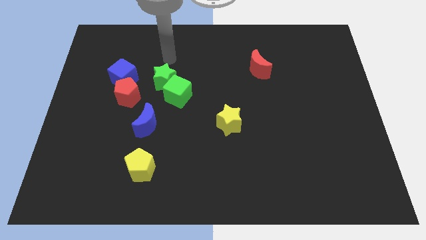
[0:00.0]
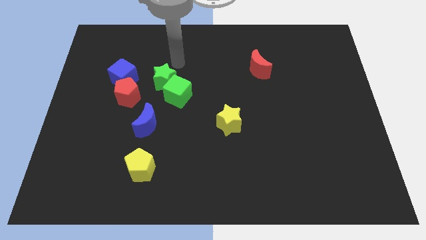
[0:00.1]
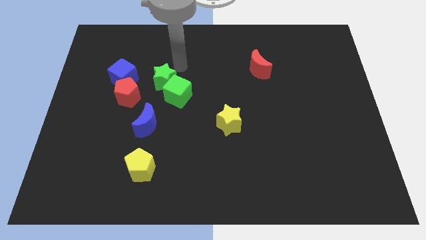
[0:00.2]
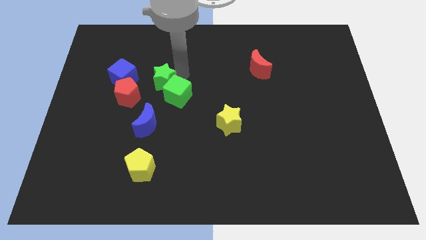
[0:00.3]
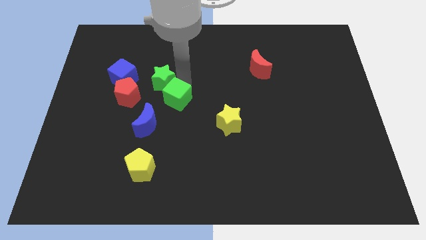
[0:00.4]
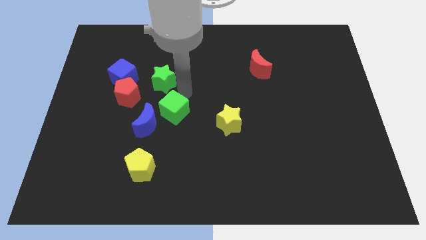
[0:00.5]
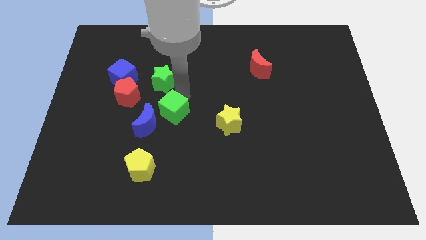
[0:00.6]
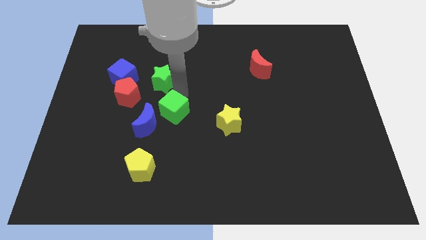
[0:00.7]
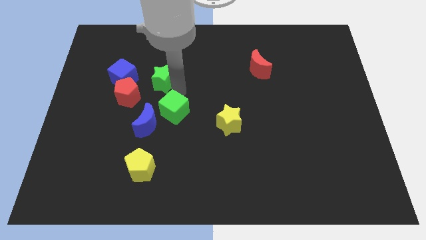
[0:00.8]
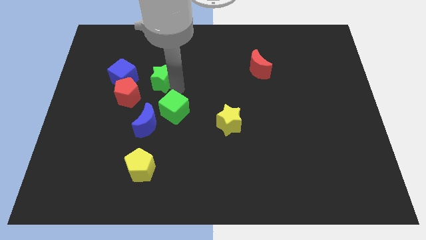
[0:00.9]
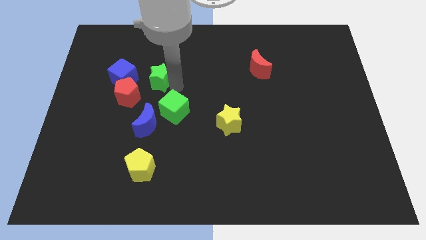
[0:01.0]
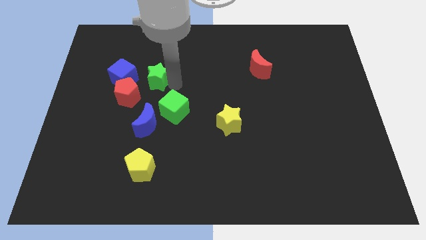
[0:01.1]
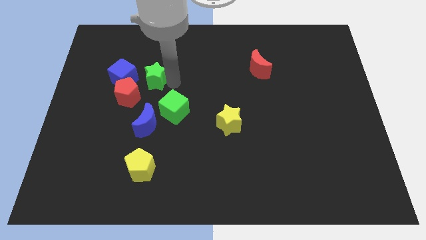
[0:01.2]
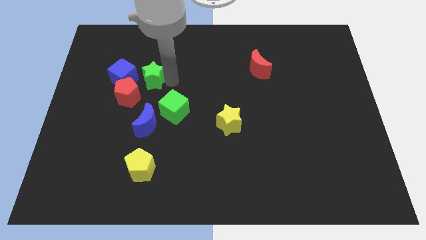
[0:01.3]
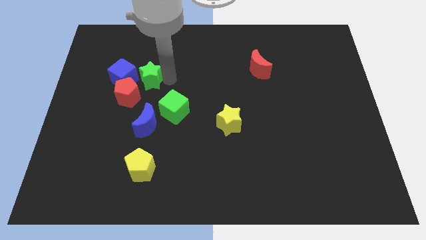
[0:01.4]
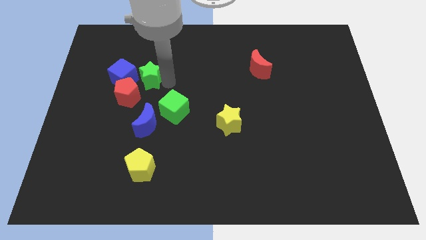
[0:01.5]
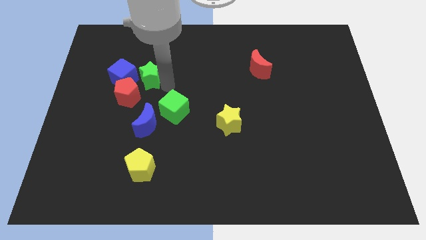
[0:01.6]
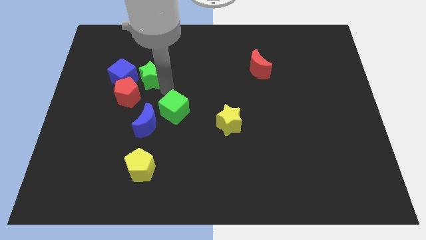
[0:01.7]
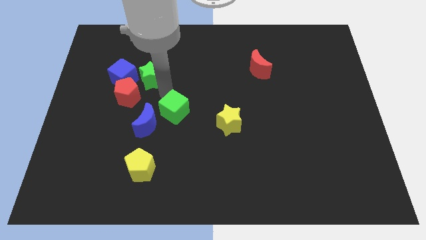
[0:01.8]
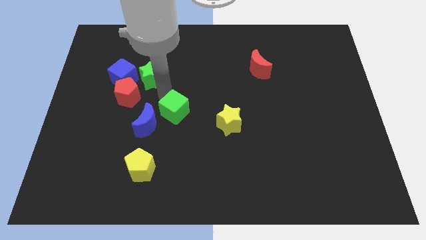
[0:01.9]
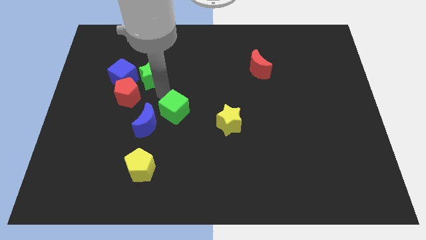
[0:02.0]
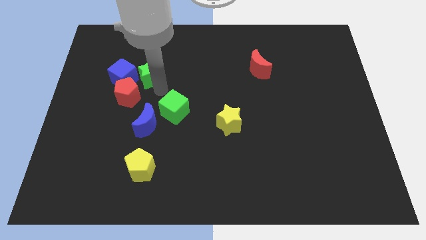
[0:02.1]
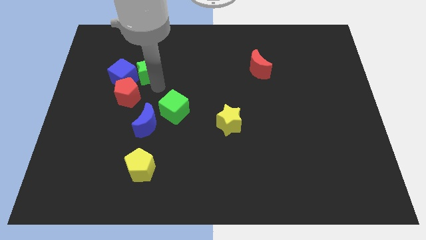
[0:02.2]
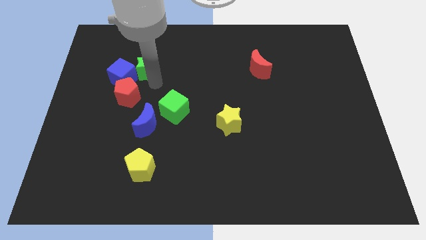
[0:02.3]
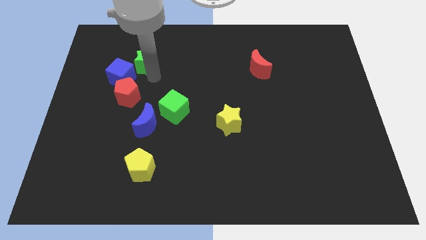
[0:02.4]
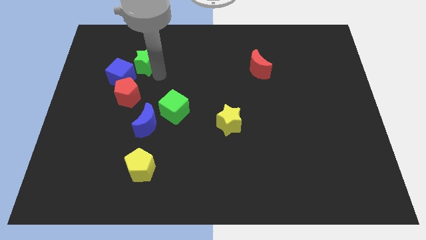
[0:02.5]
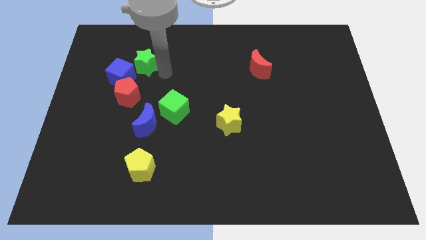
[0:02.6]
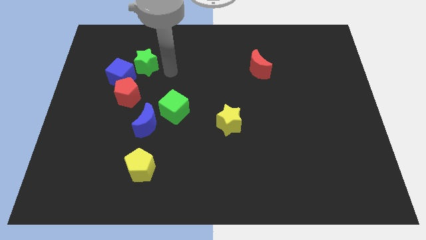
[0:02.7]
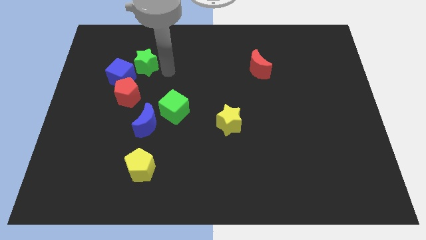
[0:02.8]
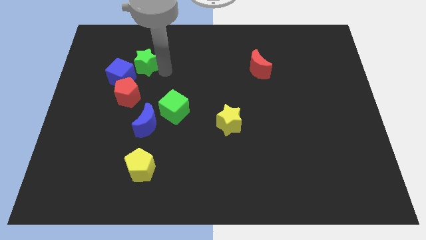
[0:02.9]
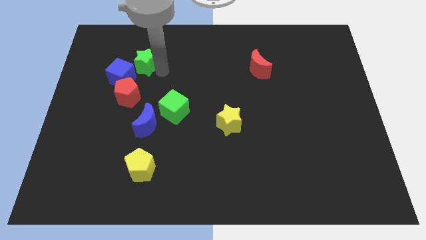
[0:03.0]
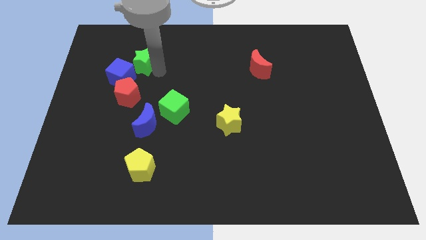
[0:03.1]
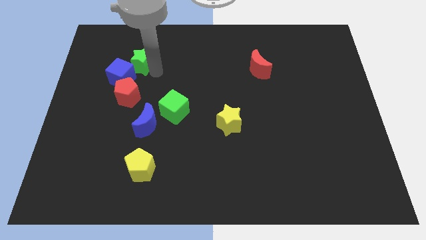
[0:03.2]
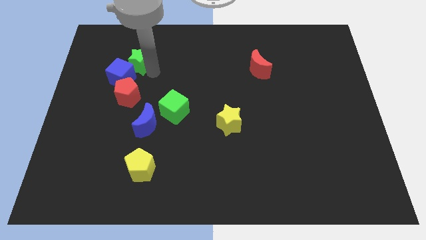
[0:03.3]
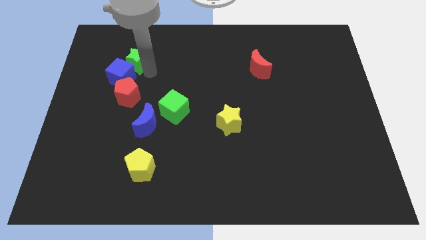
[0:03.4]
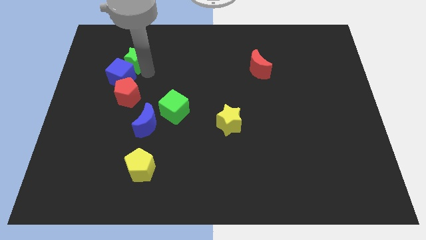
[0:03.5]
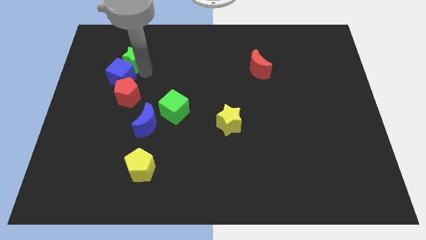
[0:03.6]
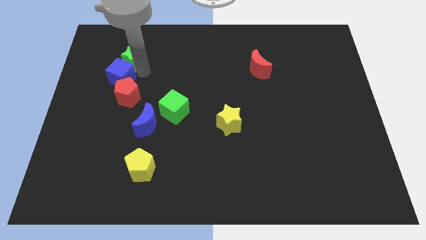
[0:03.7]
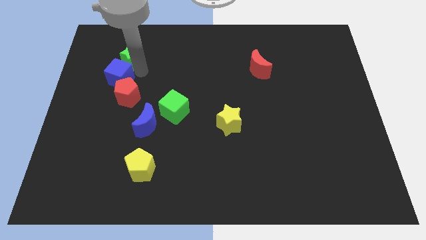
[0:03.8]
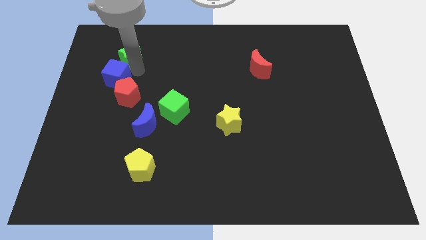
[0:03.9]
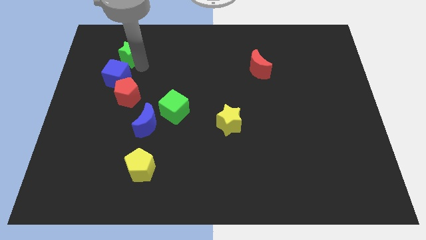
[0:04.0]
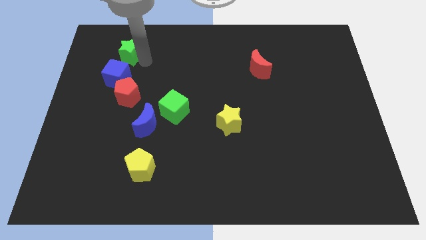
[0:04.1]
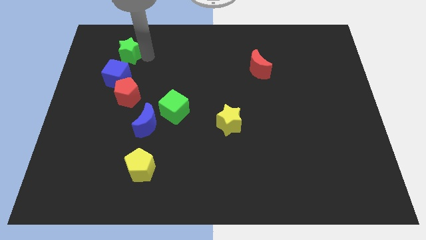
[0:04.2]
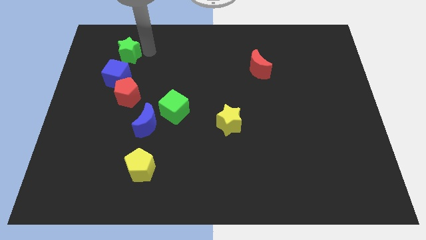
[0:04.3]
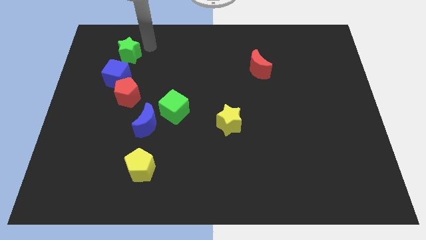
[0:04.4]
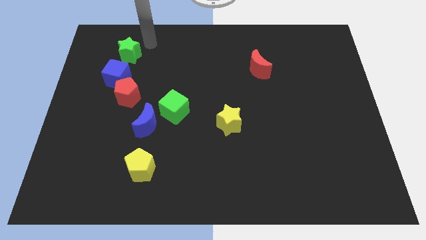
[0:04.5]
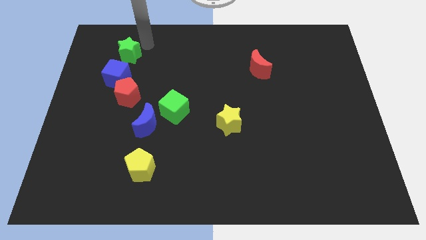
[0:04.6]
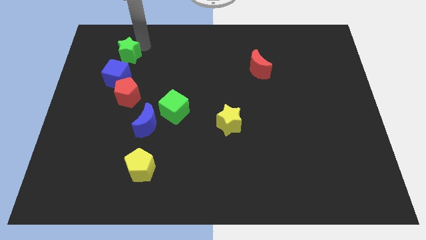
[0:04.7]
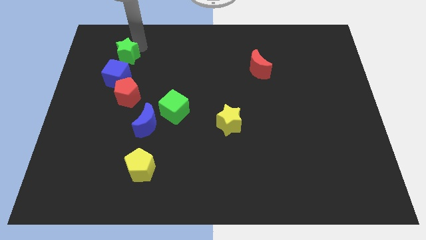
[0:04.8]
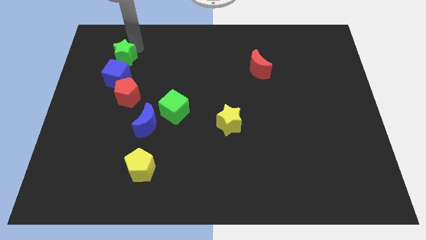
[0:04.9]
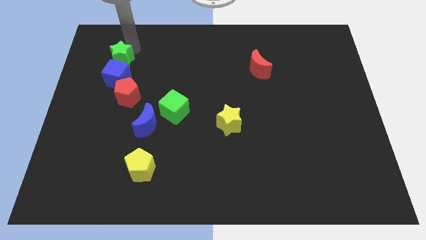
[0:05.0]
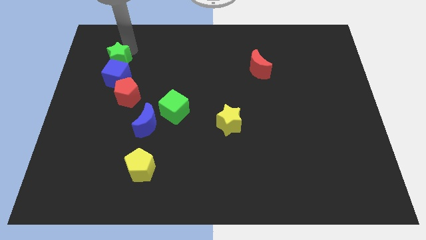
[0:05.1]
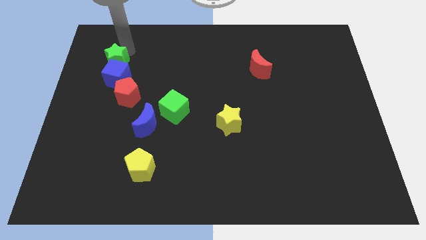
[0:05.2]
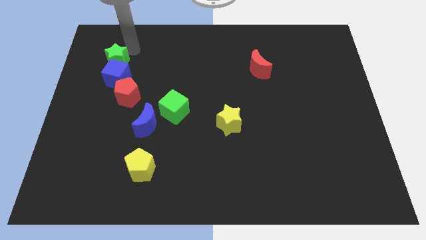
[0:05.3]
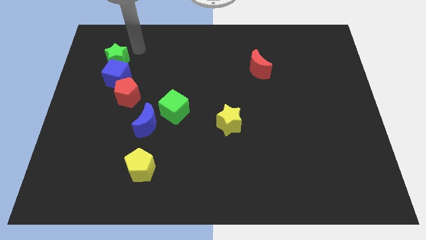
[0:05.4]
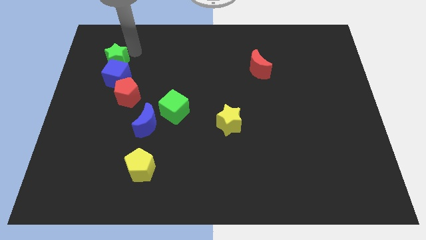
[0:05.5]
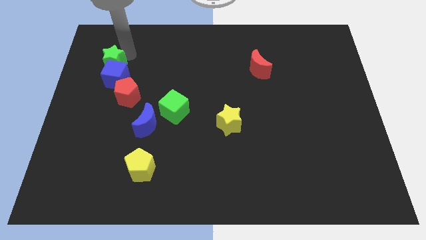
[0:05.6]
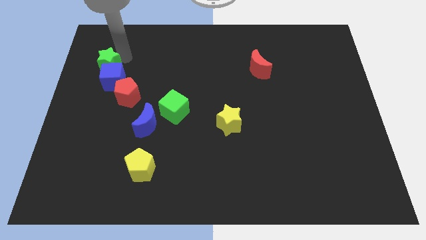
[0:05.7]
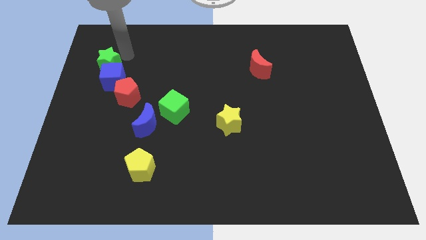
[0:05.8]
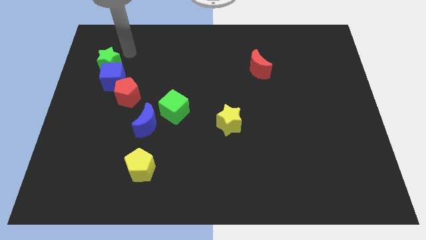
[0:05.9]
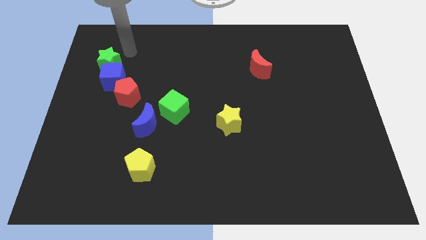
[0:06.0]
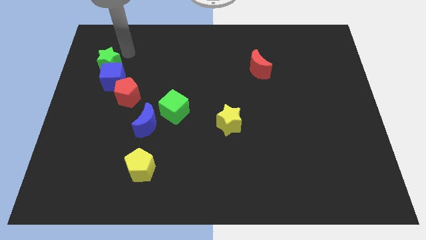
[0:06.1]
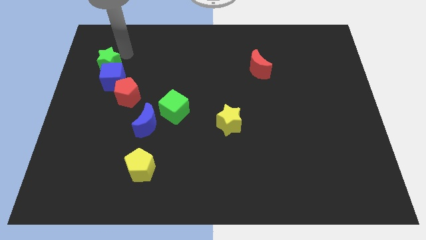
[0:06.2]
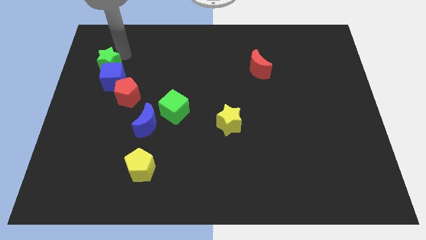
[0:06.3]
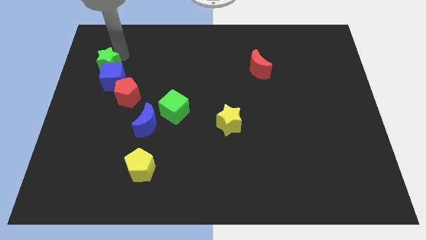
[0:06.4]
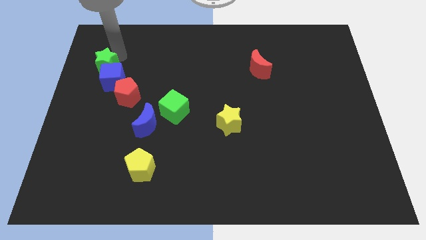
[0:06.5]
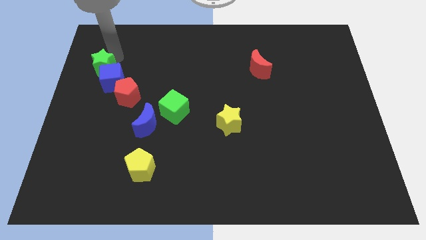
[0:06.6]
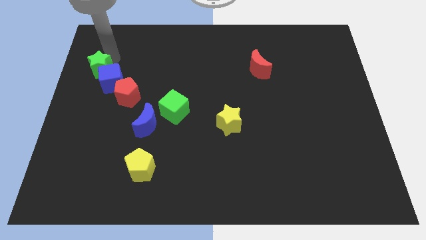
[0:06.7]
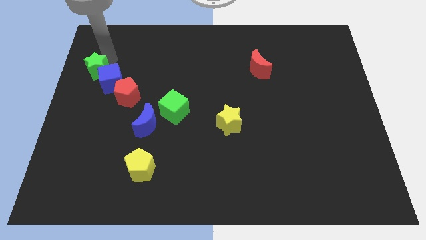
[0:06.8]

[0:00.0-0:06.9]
move the green star to the left side
